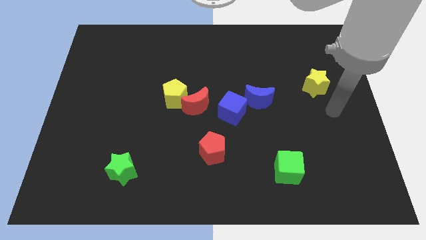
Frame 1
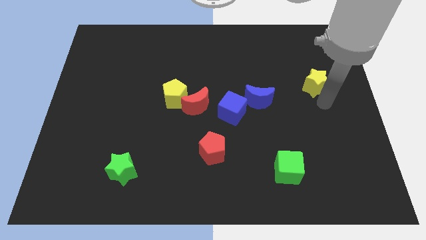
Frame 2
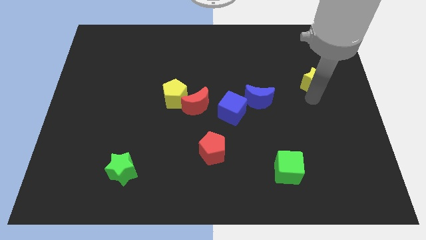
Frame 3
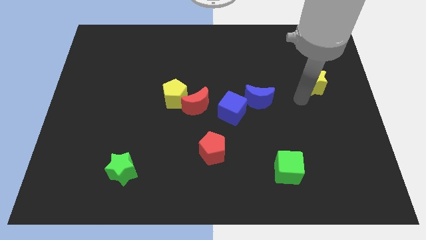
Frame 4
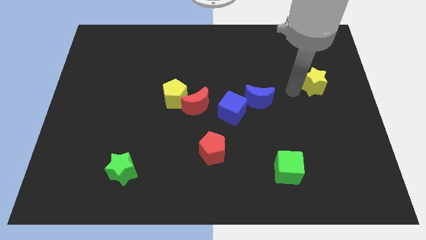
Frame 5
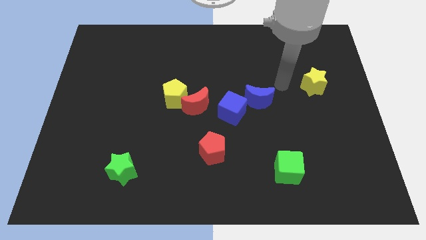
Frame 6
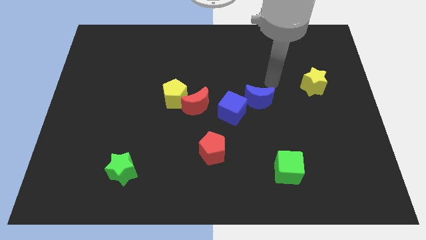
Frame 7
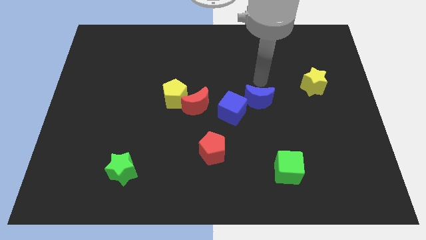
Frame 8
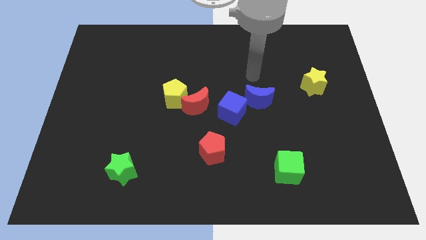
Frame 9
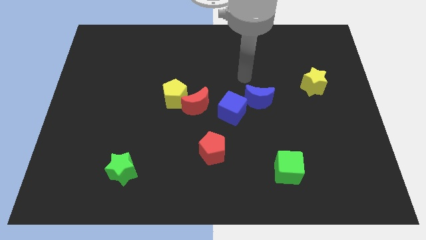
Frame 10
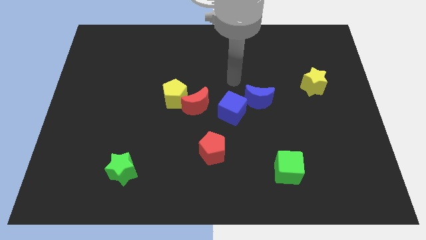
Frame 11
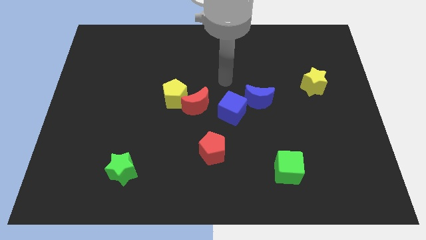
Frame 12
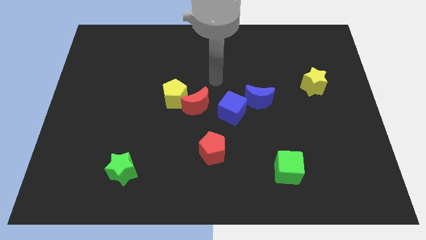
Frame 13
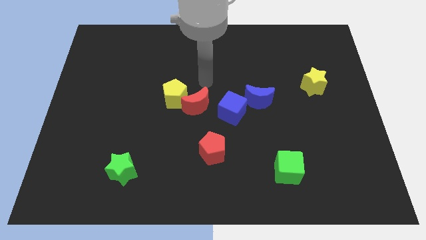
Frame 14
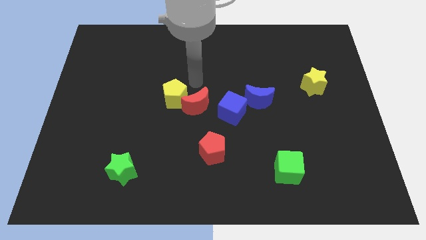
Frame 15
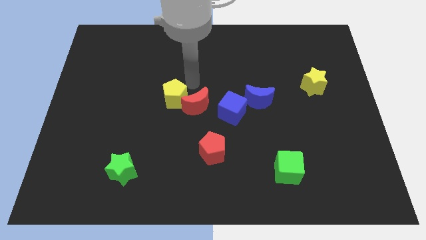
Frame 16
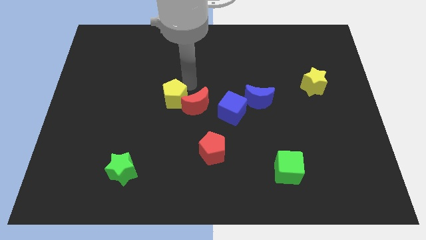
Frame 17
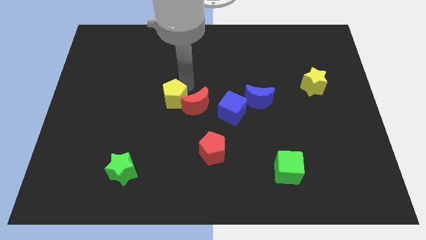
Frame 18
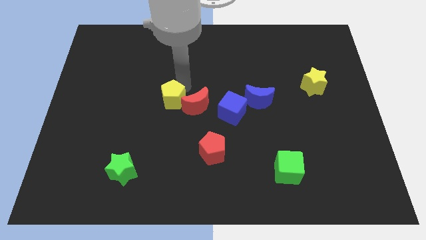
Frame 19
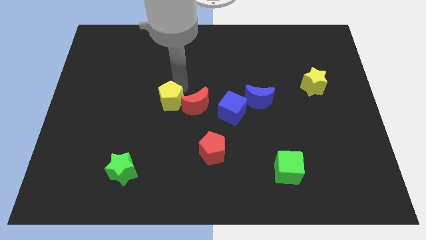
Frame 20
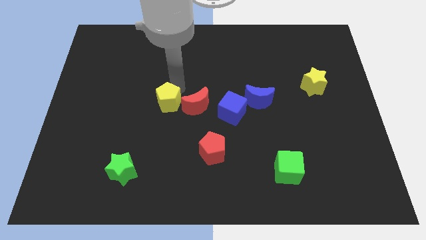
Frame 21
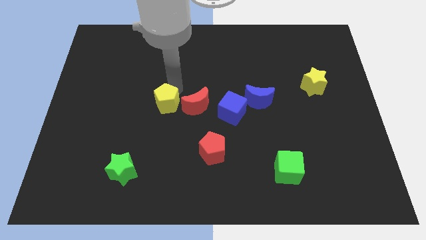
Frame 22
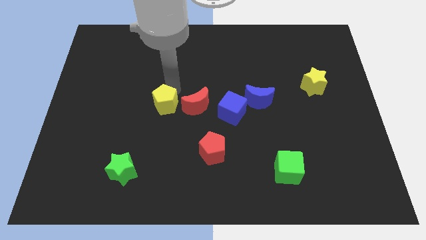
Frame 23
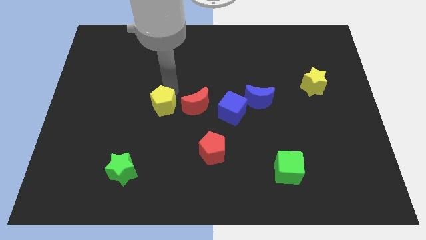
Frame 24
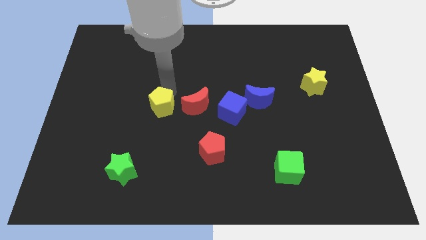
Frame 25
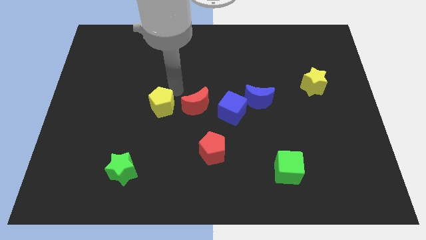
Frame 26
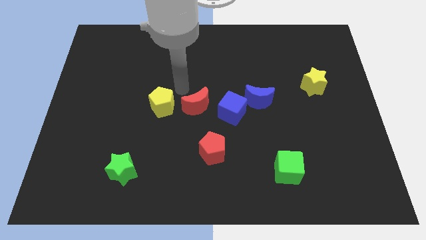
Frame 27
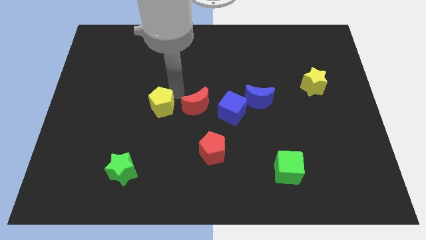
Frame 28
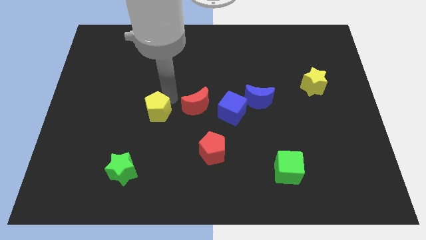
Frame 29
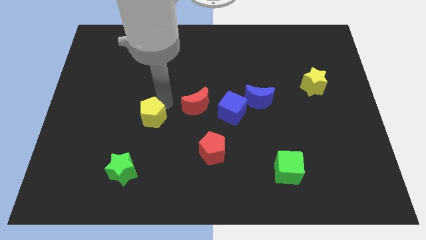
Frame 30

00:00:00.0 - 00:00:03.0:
move the yellow pentagon down and then left a little bit

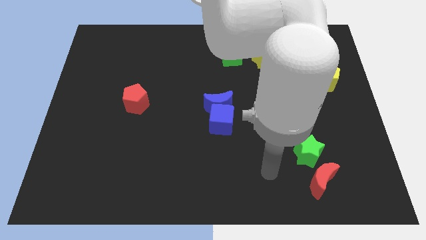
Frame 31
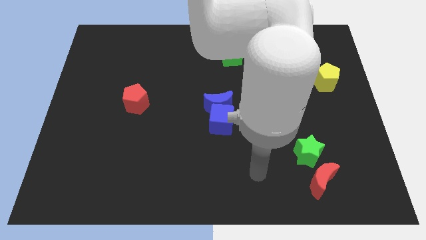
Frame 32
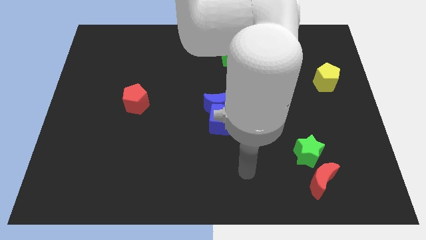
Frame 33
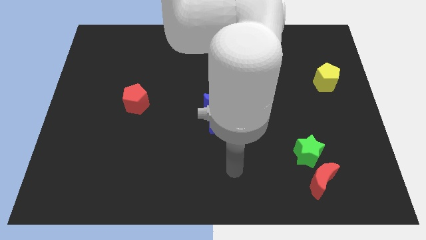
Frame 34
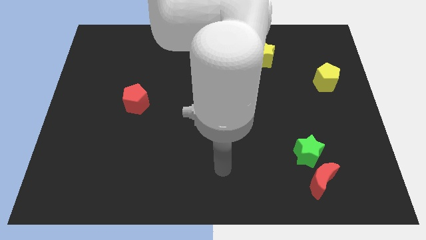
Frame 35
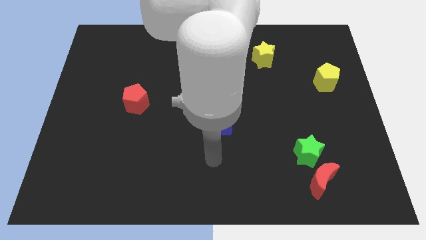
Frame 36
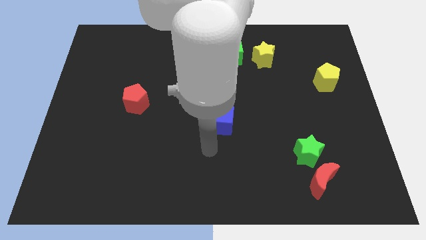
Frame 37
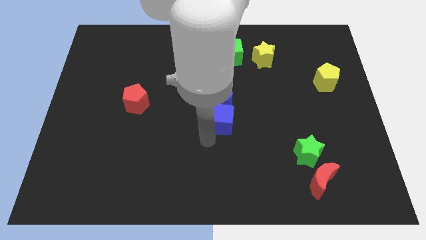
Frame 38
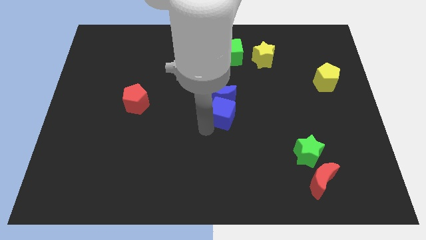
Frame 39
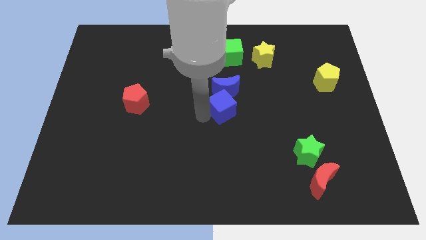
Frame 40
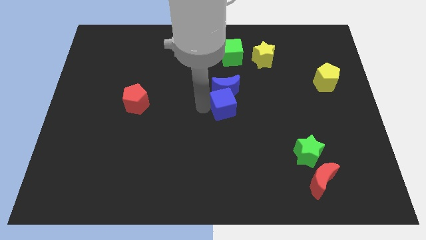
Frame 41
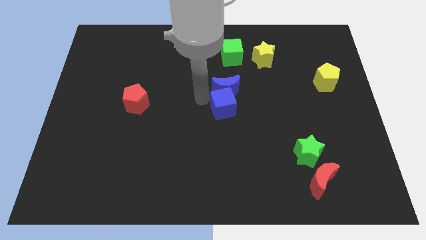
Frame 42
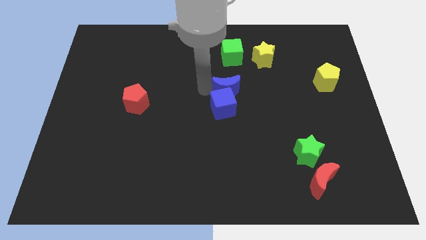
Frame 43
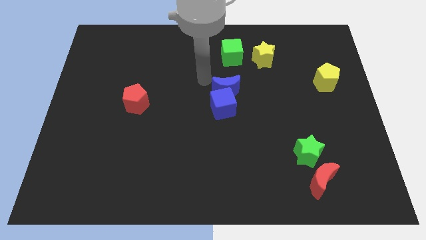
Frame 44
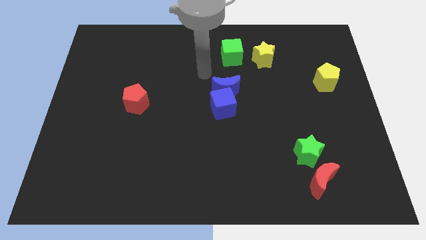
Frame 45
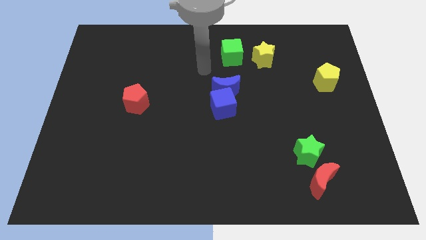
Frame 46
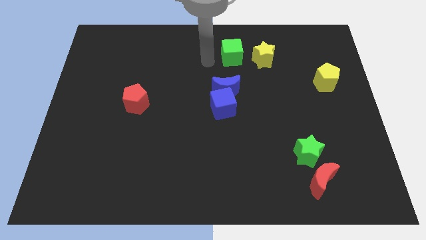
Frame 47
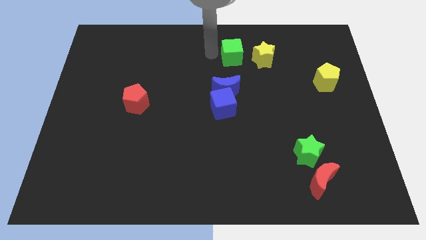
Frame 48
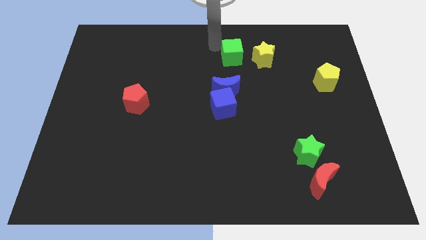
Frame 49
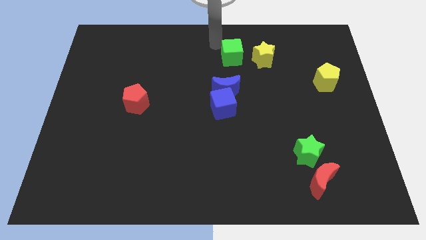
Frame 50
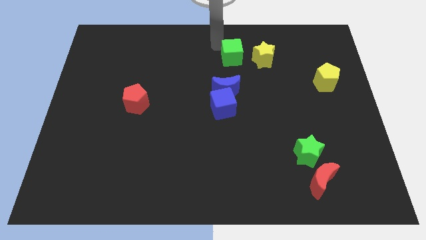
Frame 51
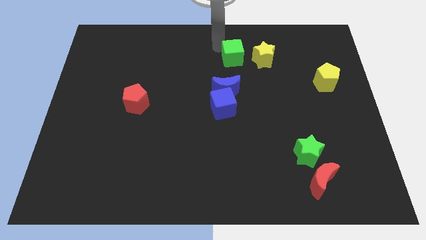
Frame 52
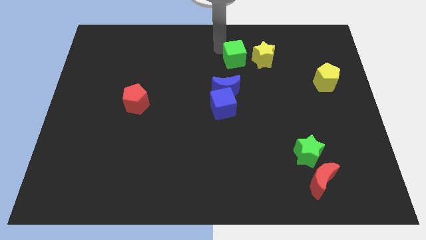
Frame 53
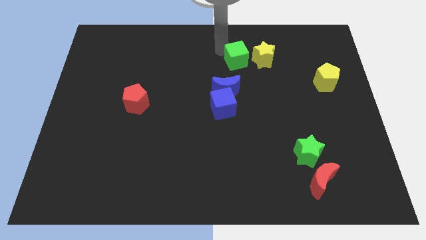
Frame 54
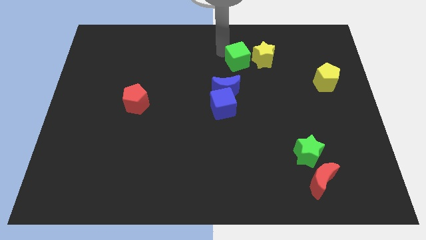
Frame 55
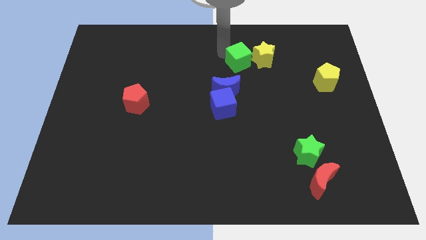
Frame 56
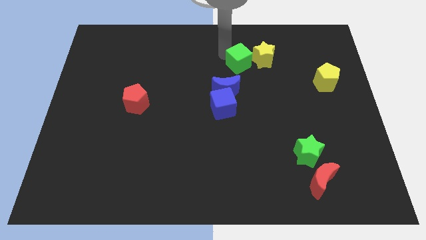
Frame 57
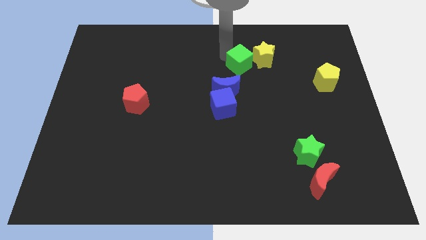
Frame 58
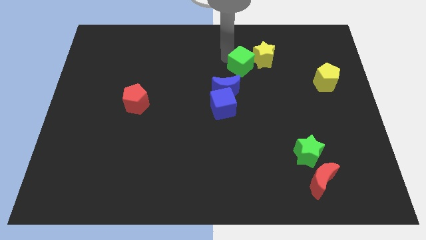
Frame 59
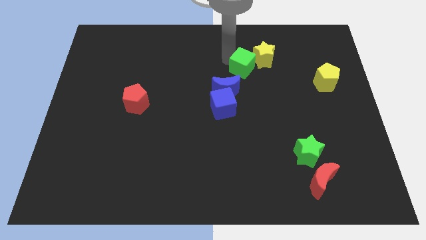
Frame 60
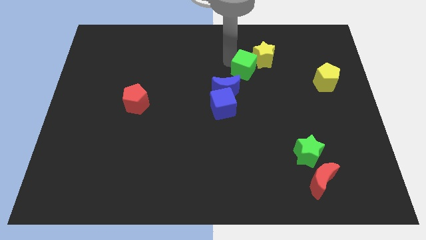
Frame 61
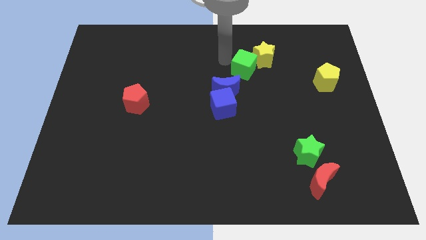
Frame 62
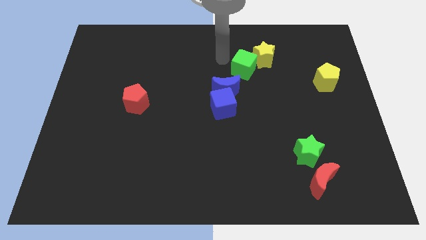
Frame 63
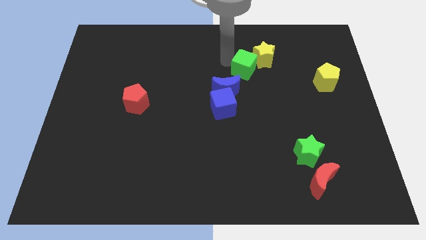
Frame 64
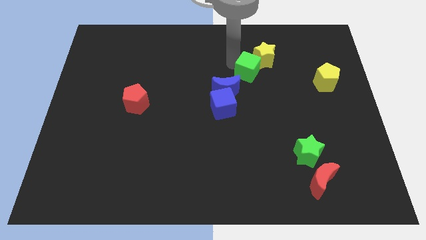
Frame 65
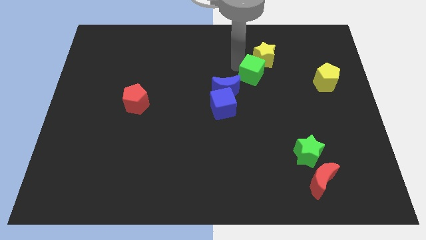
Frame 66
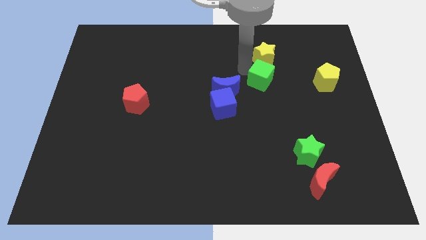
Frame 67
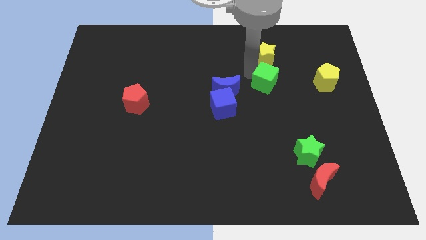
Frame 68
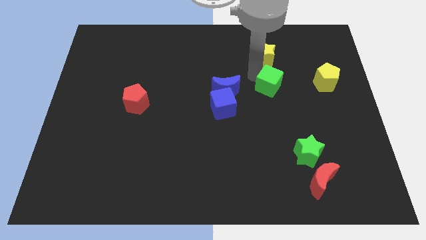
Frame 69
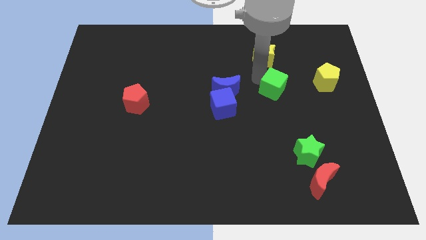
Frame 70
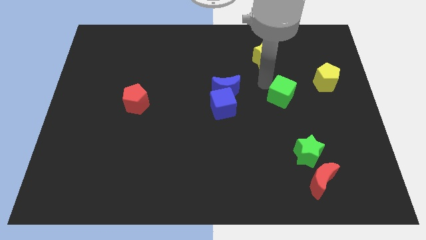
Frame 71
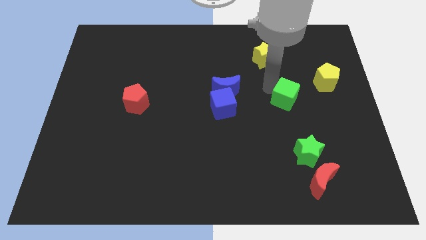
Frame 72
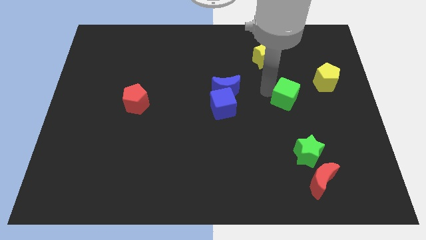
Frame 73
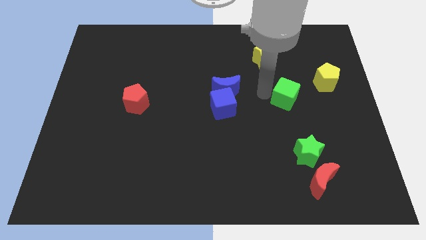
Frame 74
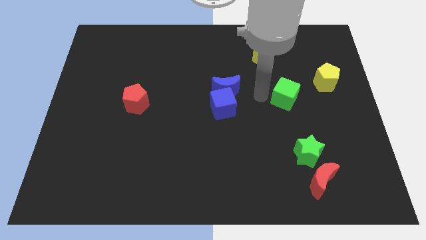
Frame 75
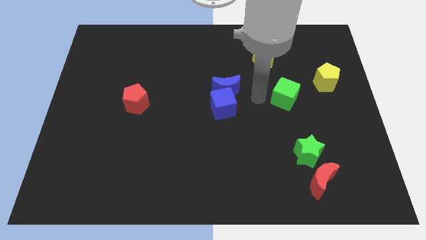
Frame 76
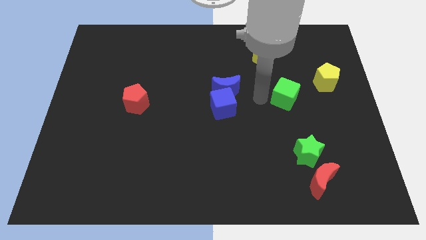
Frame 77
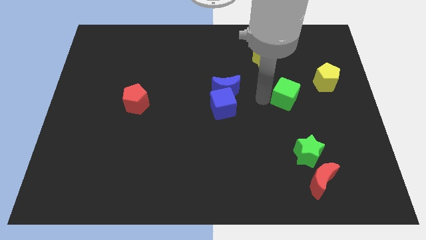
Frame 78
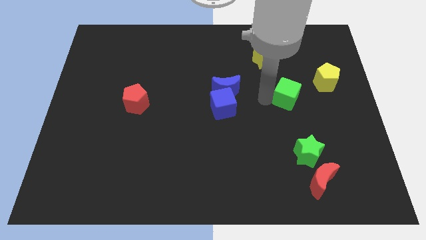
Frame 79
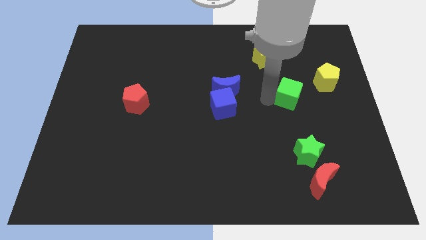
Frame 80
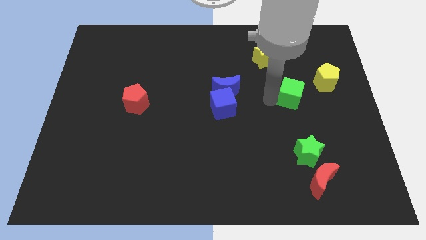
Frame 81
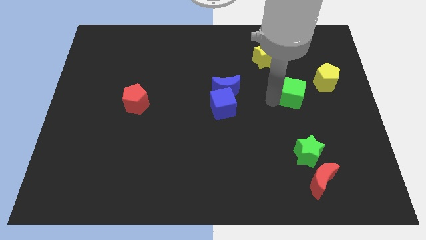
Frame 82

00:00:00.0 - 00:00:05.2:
slide the green cube downwards and to the right
